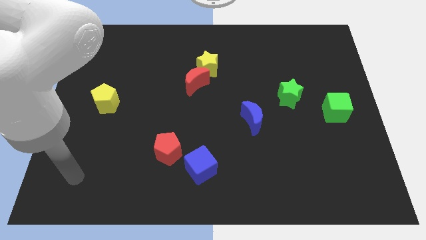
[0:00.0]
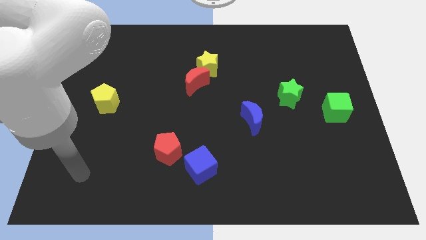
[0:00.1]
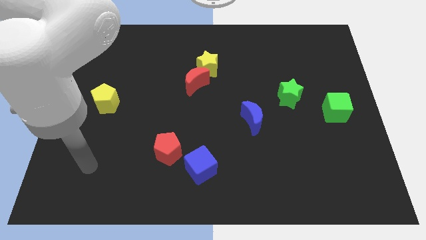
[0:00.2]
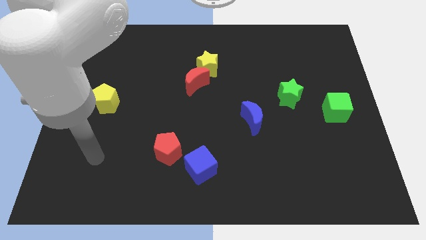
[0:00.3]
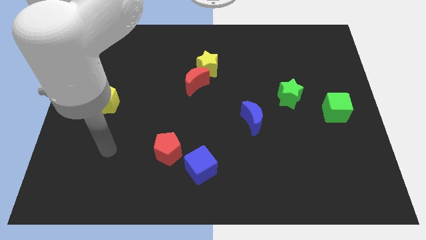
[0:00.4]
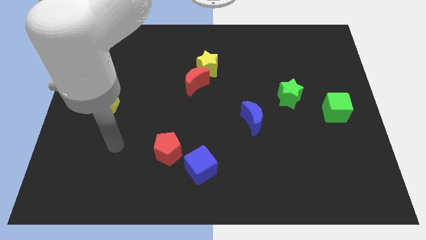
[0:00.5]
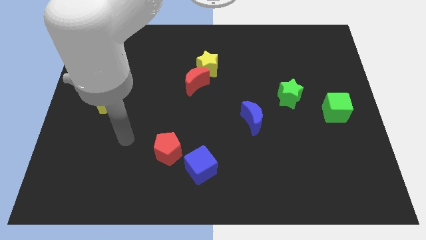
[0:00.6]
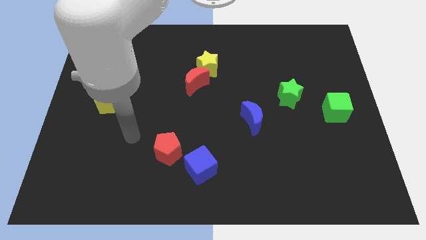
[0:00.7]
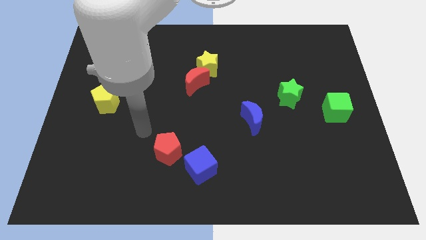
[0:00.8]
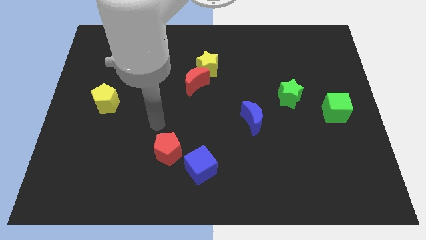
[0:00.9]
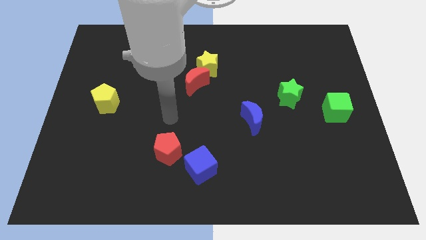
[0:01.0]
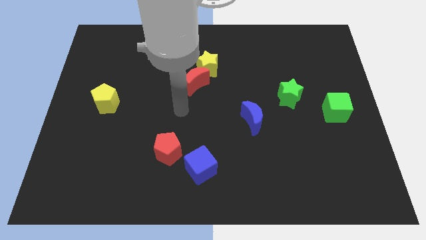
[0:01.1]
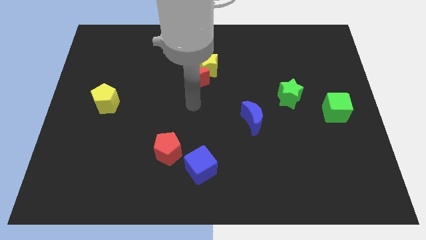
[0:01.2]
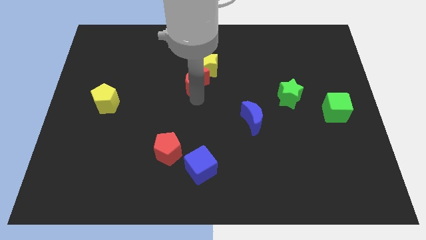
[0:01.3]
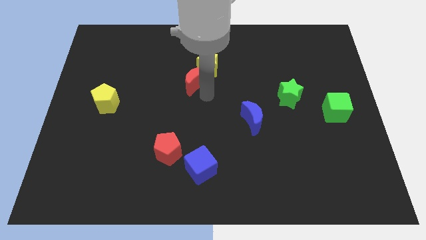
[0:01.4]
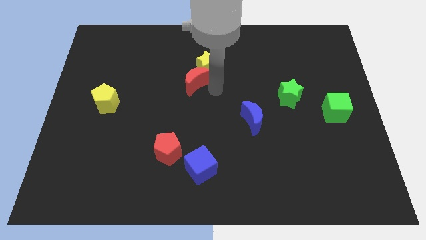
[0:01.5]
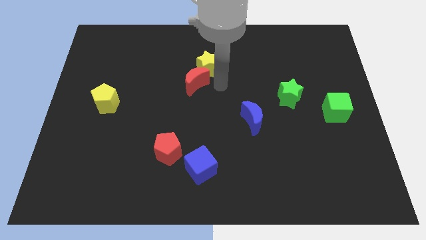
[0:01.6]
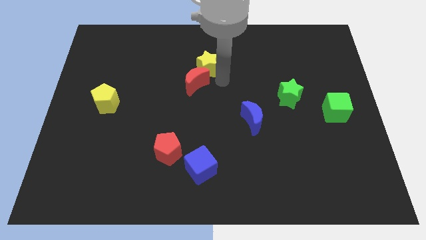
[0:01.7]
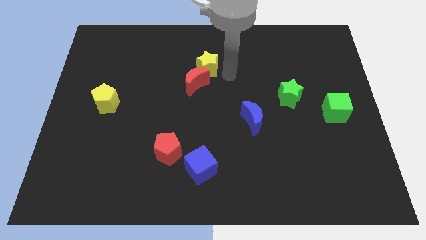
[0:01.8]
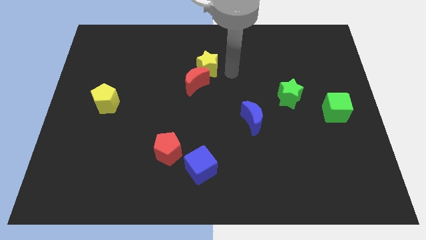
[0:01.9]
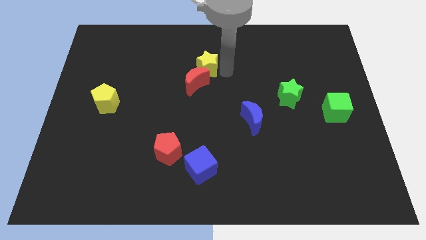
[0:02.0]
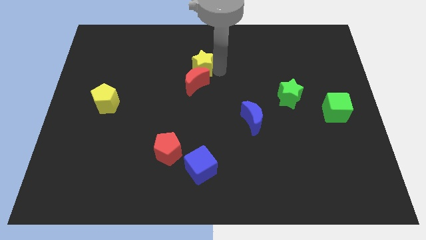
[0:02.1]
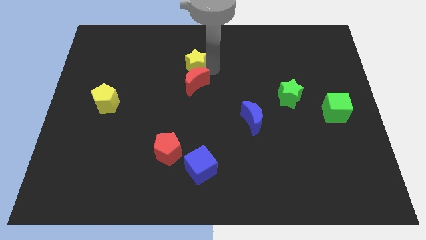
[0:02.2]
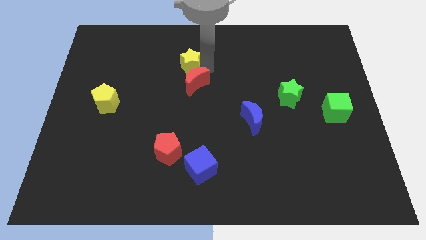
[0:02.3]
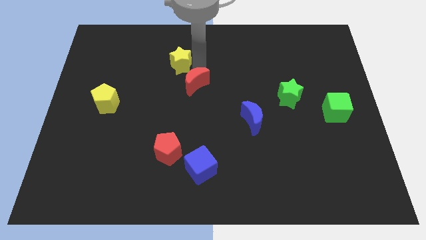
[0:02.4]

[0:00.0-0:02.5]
move the yellow star slightly left

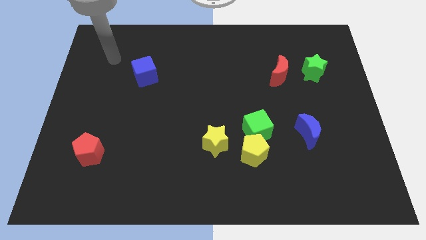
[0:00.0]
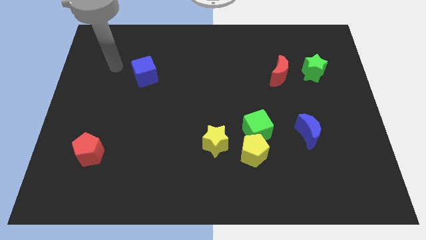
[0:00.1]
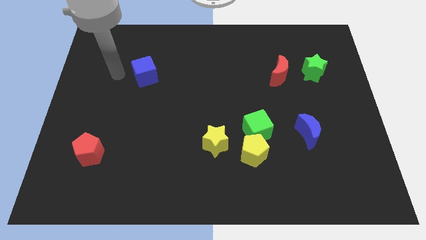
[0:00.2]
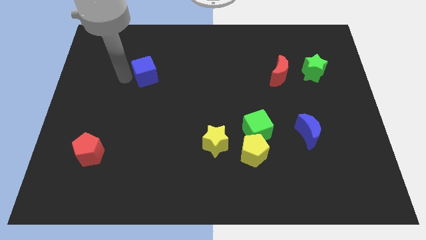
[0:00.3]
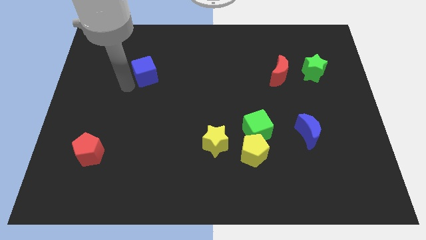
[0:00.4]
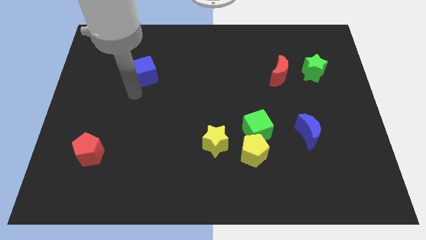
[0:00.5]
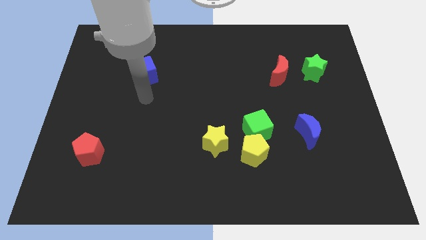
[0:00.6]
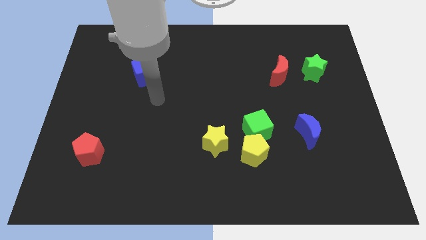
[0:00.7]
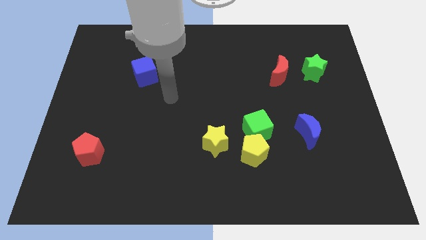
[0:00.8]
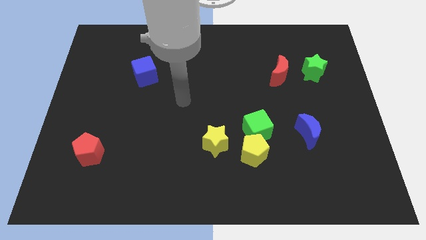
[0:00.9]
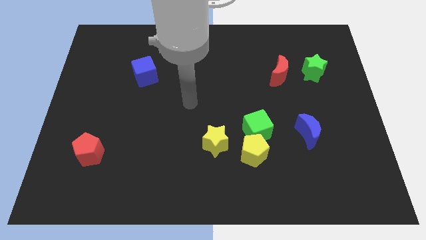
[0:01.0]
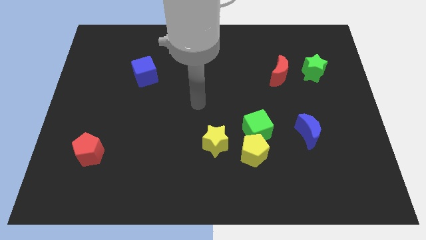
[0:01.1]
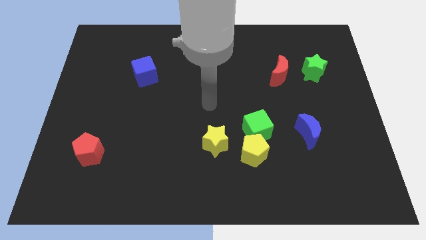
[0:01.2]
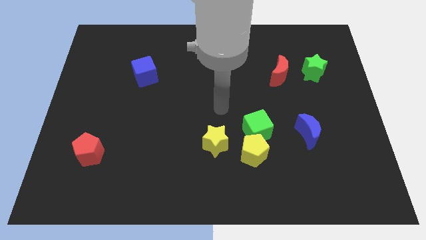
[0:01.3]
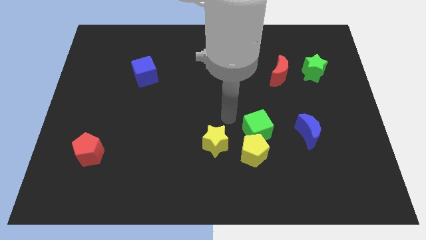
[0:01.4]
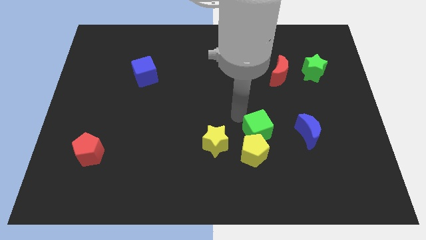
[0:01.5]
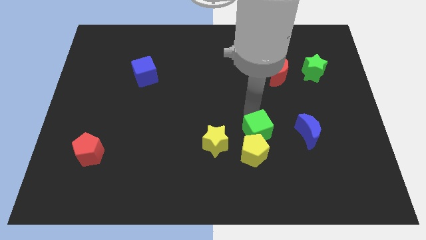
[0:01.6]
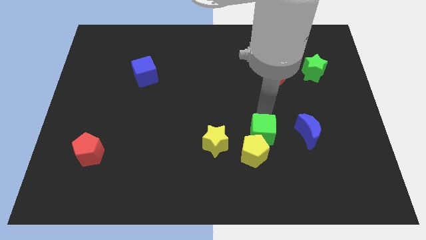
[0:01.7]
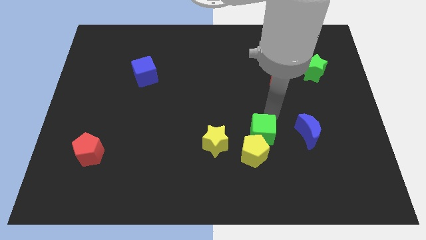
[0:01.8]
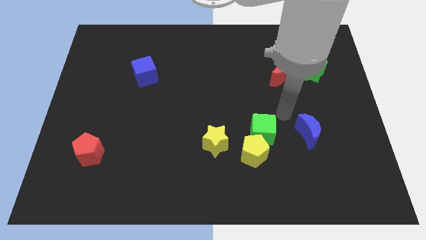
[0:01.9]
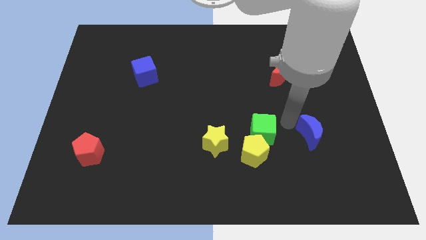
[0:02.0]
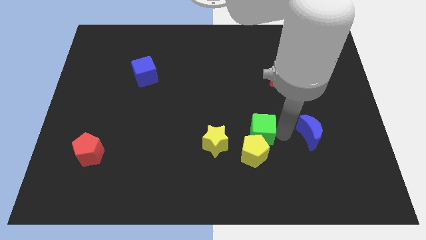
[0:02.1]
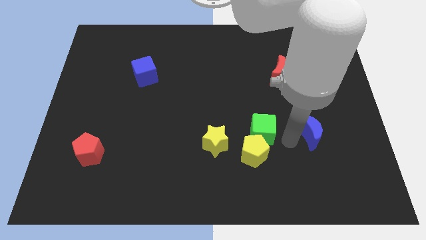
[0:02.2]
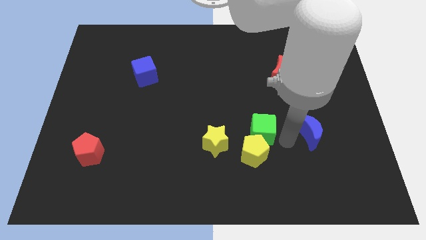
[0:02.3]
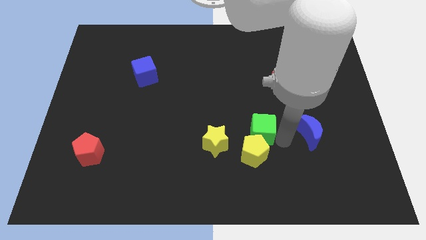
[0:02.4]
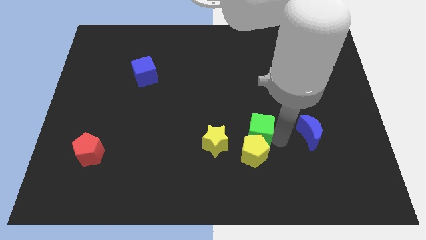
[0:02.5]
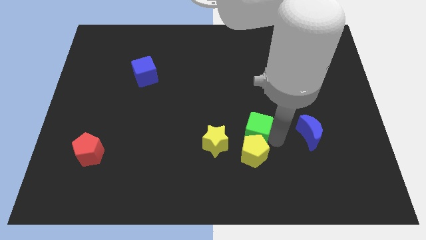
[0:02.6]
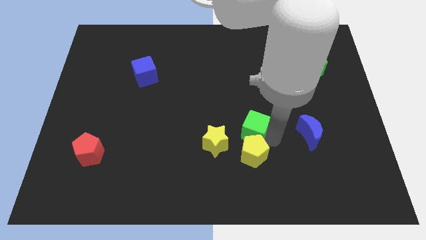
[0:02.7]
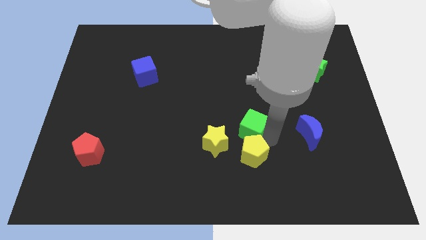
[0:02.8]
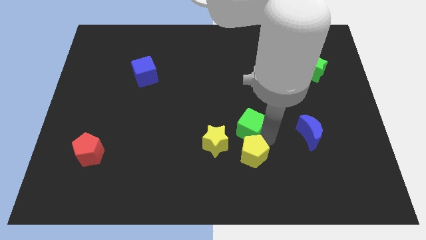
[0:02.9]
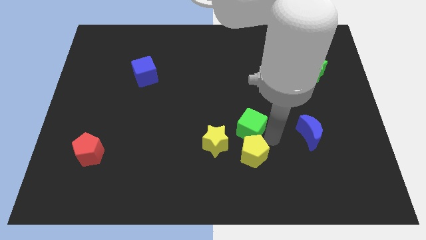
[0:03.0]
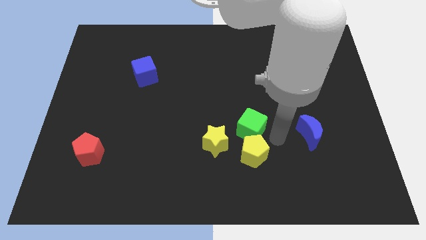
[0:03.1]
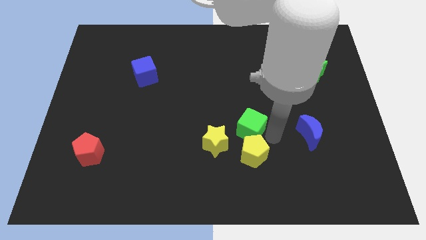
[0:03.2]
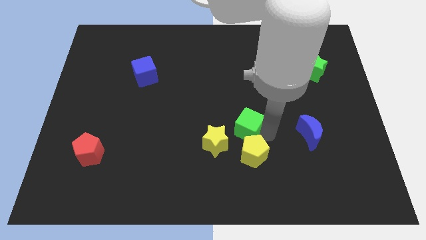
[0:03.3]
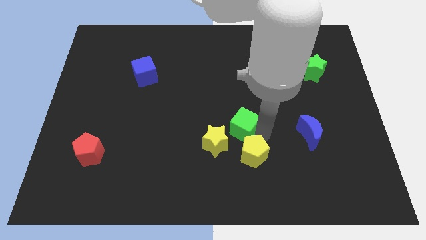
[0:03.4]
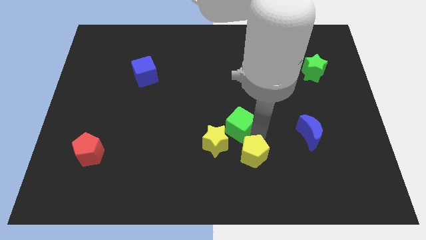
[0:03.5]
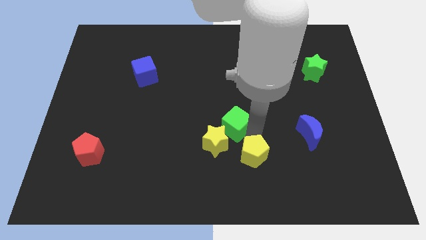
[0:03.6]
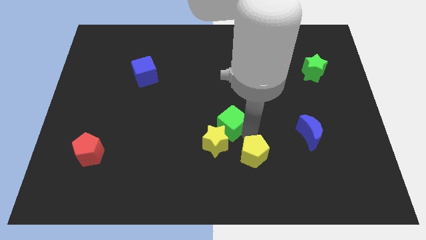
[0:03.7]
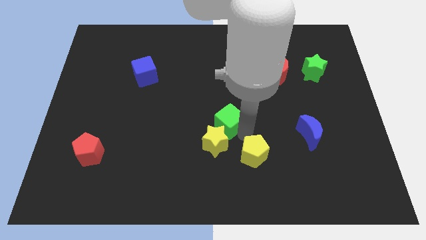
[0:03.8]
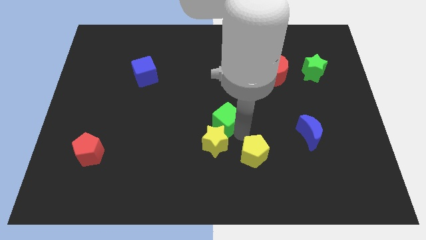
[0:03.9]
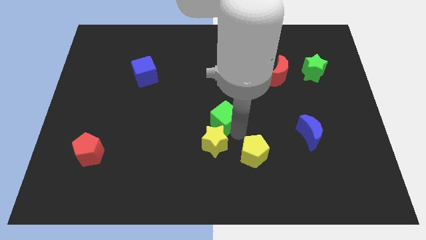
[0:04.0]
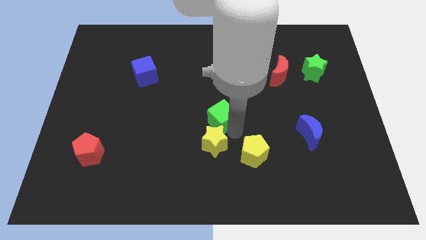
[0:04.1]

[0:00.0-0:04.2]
move the green cube up and to the left somewhat

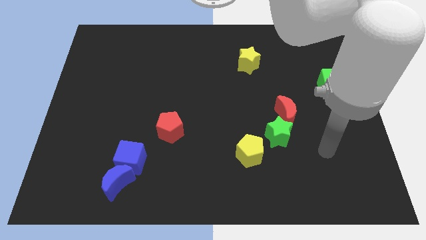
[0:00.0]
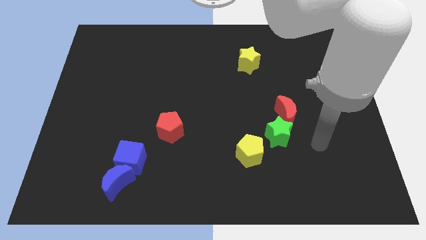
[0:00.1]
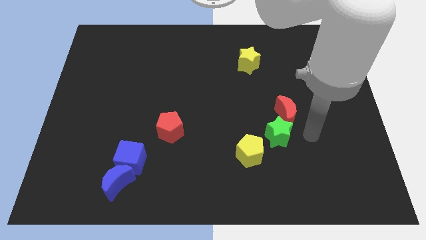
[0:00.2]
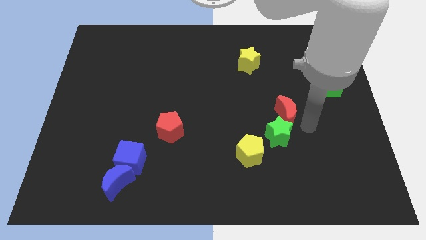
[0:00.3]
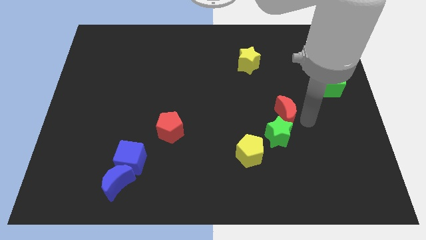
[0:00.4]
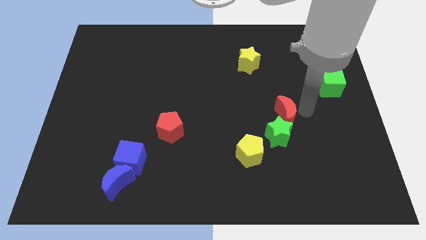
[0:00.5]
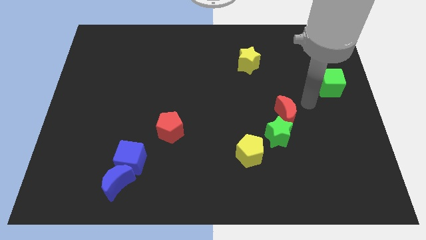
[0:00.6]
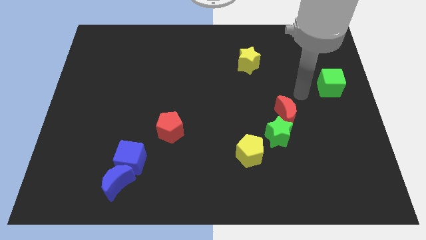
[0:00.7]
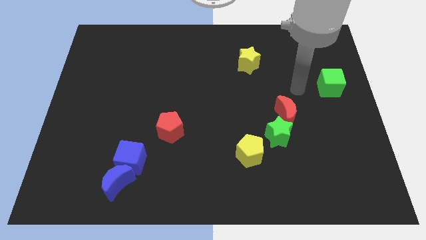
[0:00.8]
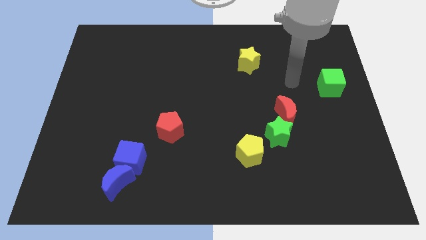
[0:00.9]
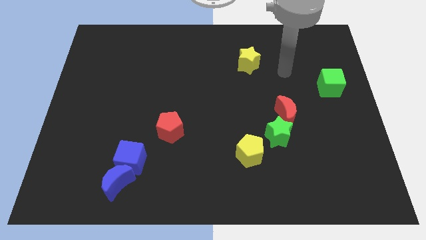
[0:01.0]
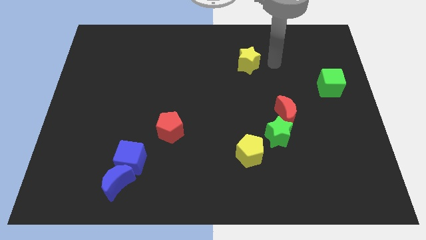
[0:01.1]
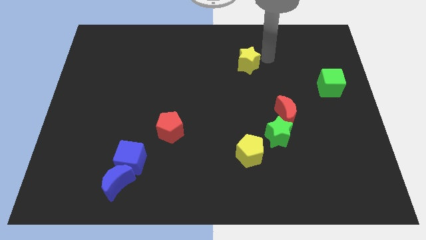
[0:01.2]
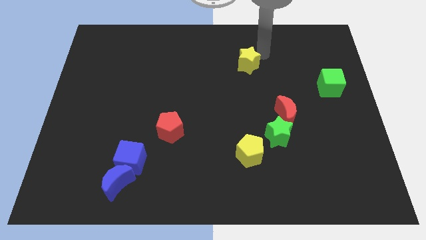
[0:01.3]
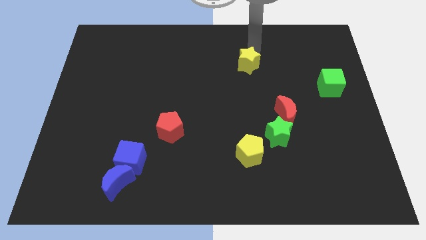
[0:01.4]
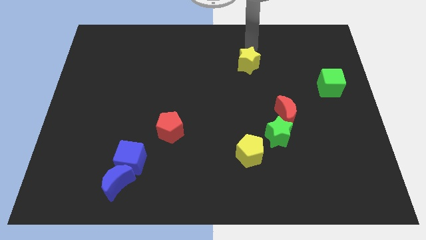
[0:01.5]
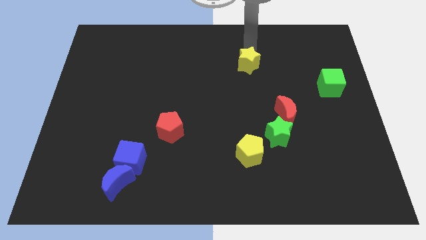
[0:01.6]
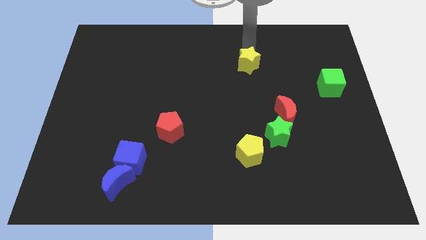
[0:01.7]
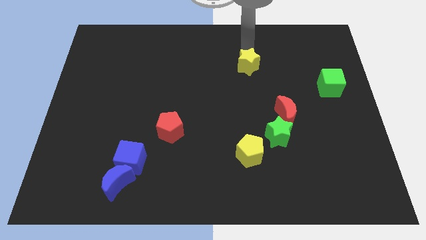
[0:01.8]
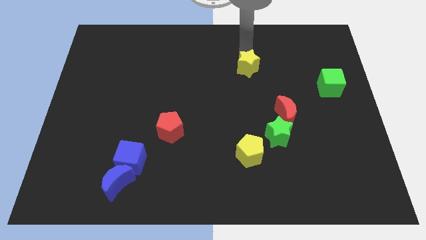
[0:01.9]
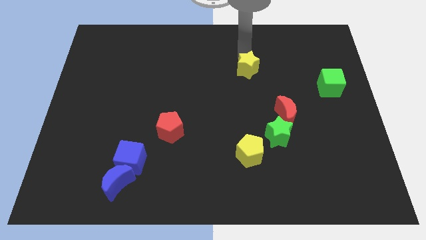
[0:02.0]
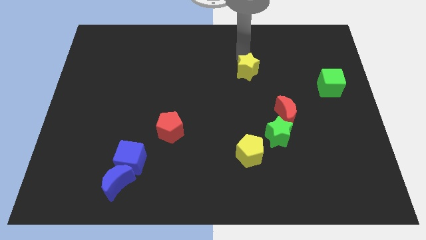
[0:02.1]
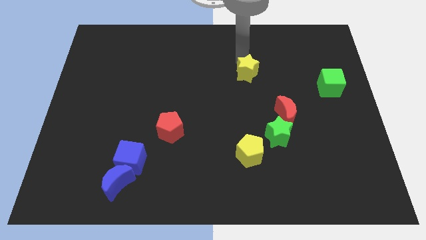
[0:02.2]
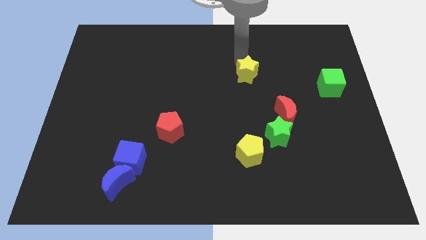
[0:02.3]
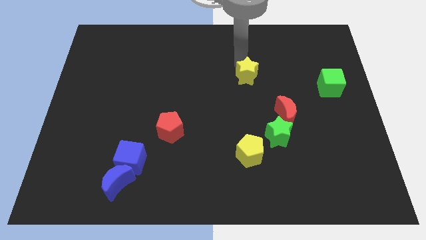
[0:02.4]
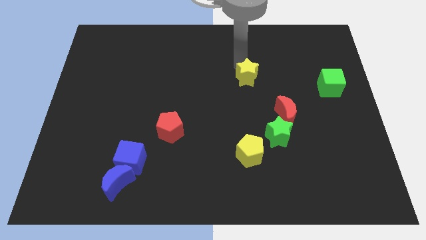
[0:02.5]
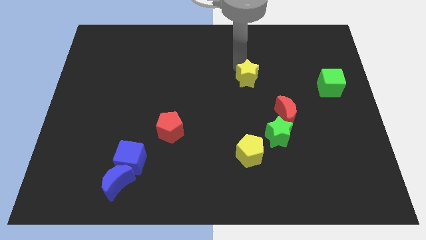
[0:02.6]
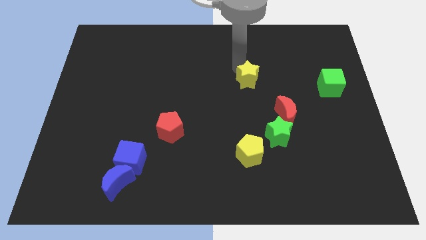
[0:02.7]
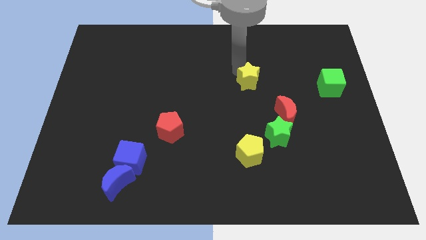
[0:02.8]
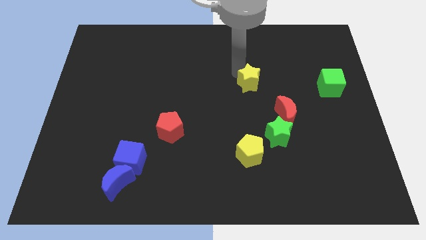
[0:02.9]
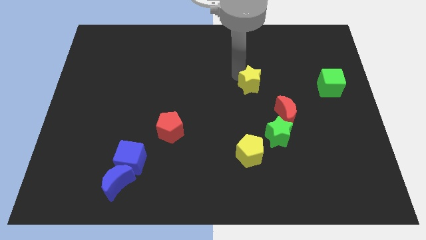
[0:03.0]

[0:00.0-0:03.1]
slightly push the yellow star downwards
